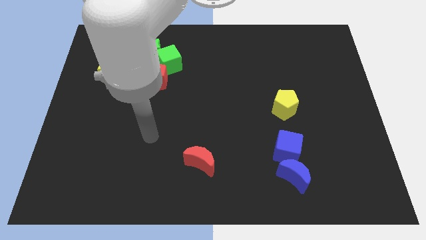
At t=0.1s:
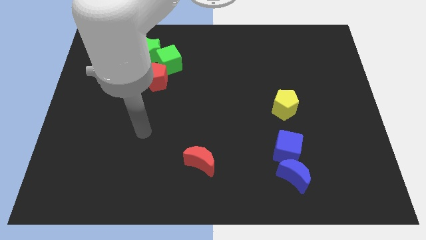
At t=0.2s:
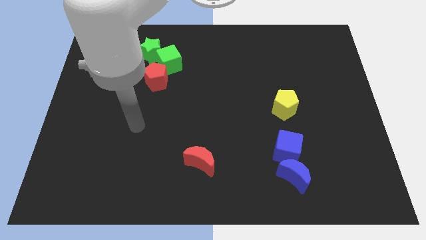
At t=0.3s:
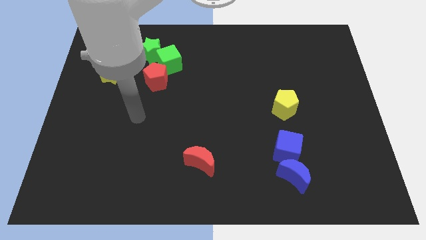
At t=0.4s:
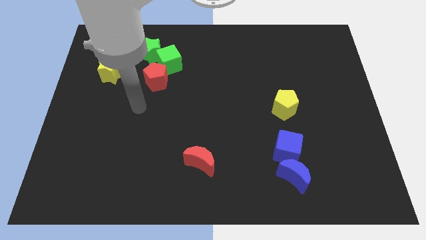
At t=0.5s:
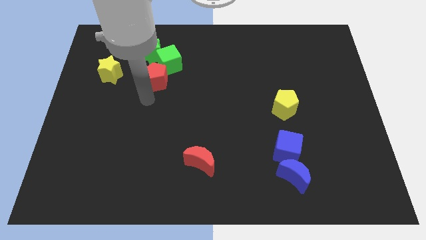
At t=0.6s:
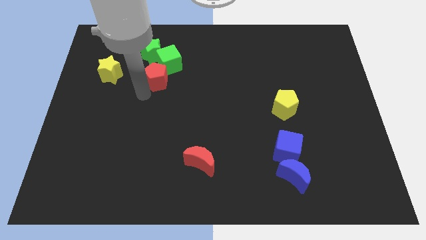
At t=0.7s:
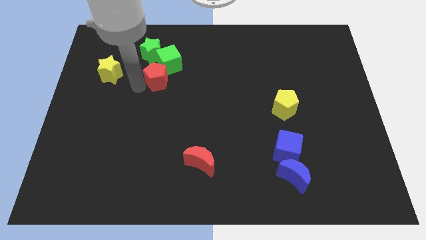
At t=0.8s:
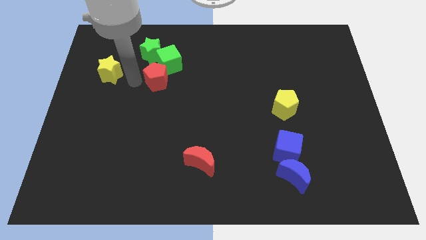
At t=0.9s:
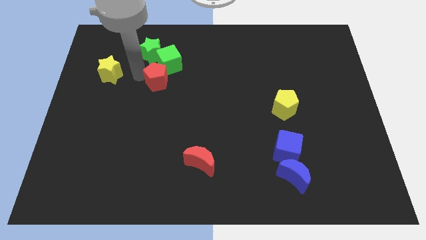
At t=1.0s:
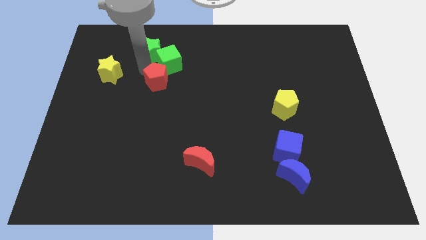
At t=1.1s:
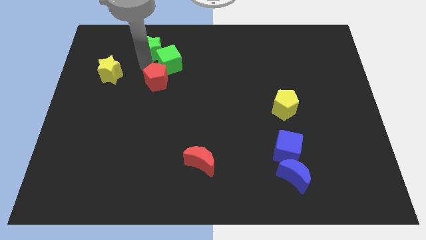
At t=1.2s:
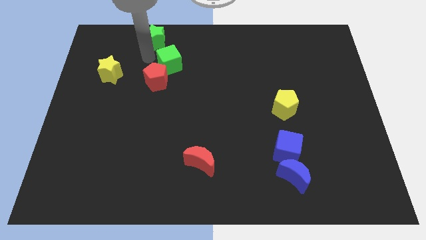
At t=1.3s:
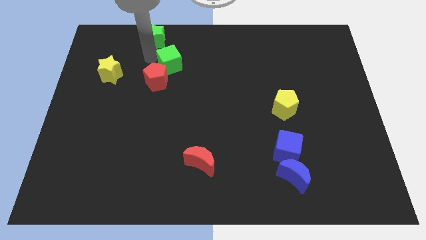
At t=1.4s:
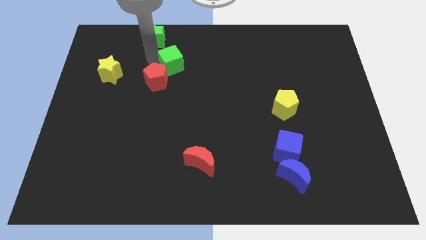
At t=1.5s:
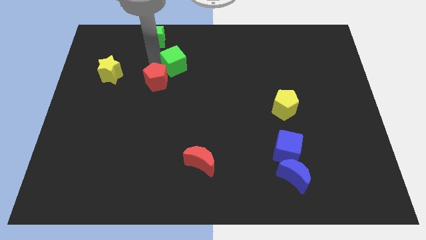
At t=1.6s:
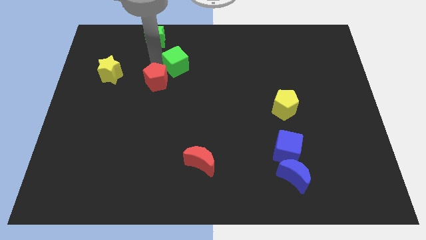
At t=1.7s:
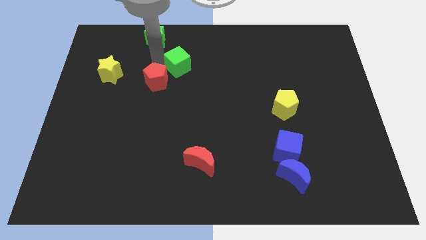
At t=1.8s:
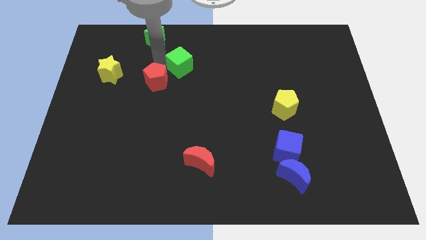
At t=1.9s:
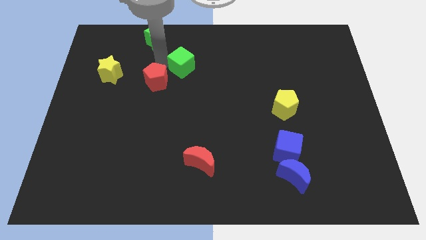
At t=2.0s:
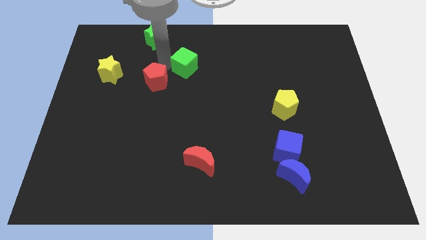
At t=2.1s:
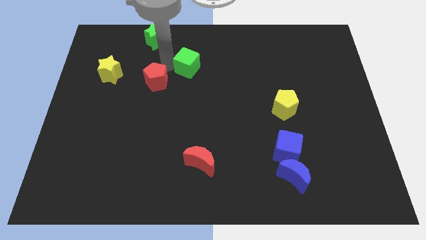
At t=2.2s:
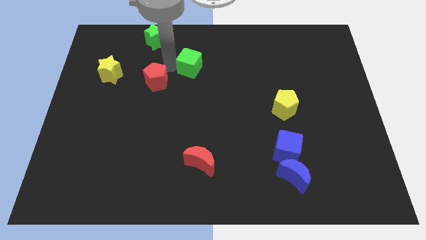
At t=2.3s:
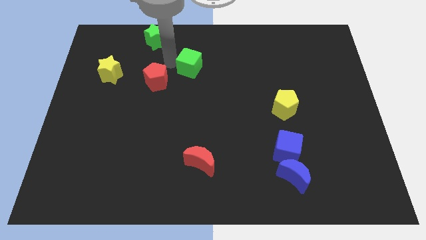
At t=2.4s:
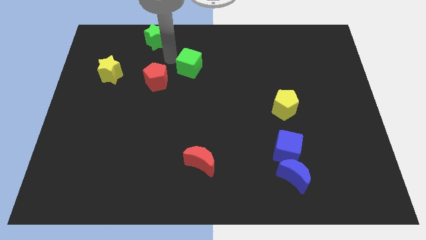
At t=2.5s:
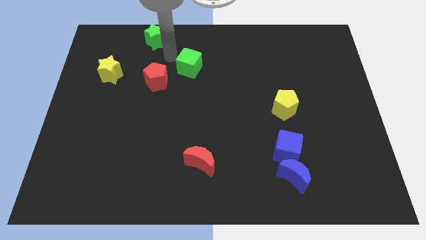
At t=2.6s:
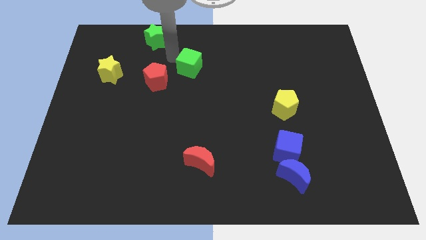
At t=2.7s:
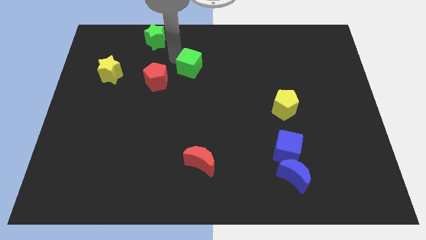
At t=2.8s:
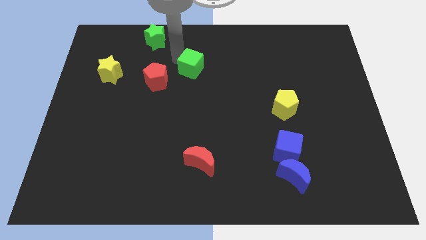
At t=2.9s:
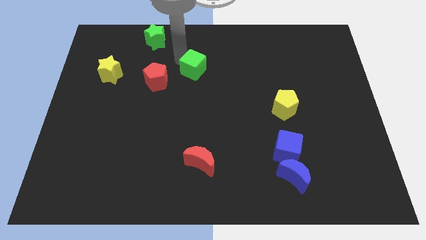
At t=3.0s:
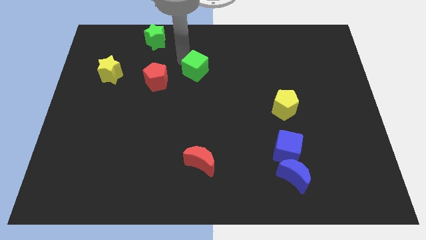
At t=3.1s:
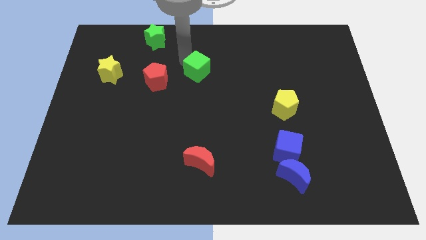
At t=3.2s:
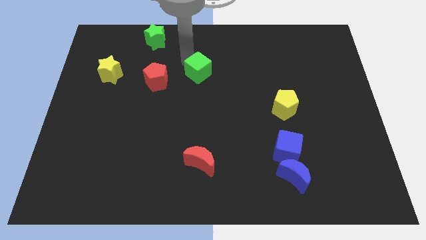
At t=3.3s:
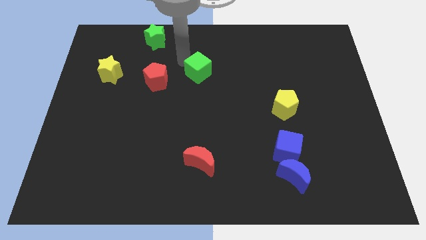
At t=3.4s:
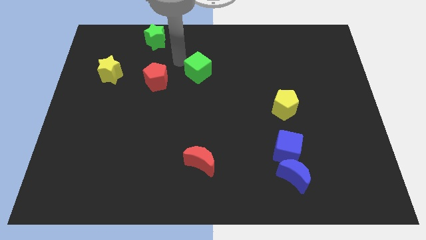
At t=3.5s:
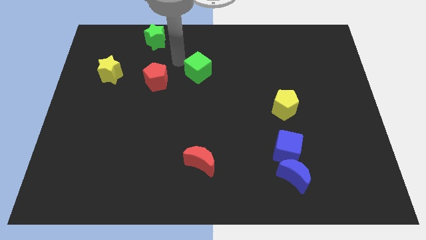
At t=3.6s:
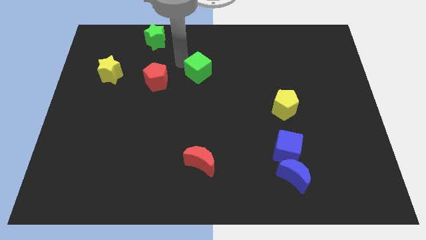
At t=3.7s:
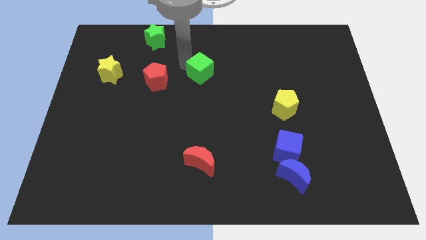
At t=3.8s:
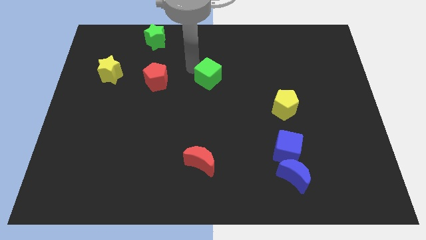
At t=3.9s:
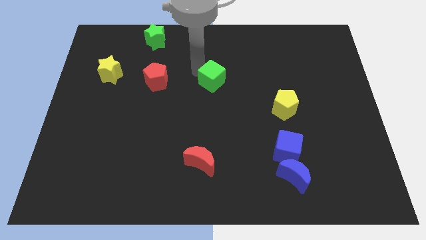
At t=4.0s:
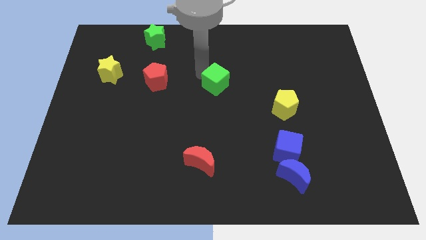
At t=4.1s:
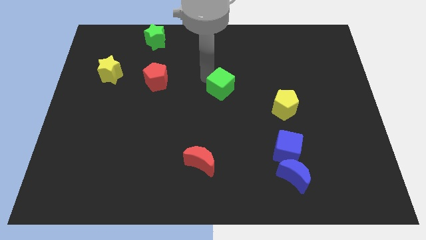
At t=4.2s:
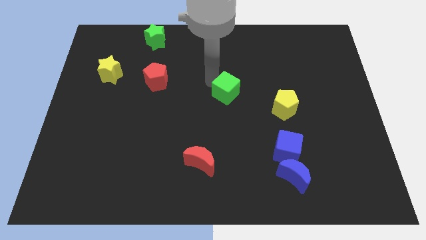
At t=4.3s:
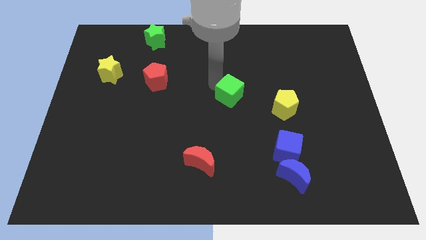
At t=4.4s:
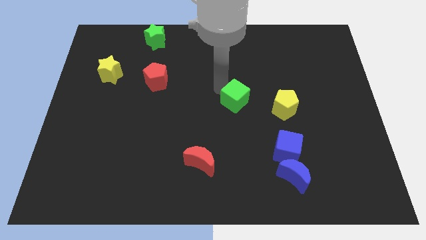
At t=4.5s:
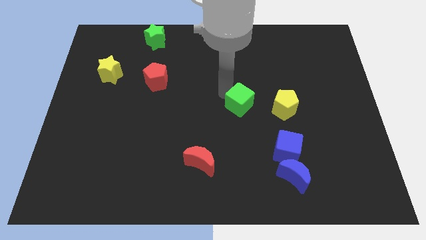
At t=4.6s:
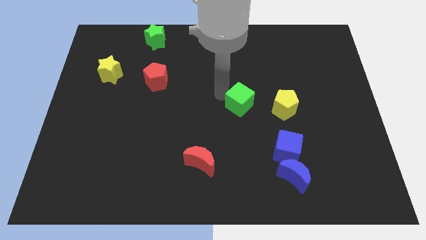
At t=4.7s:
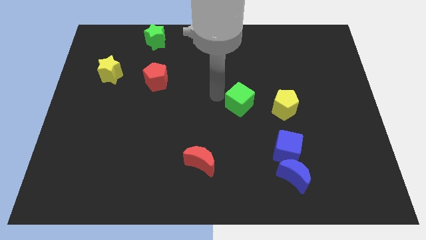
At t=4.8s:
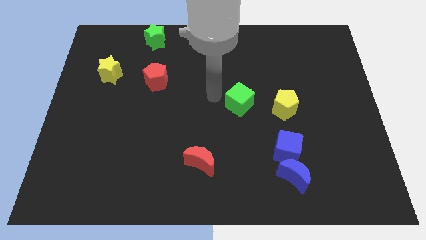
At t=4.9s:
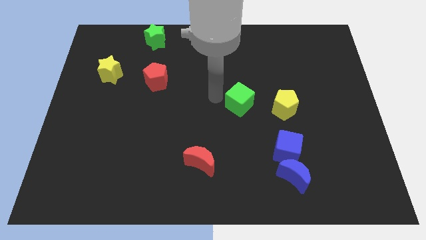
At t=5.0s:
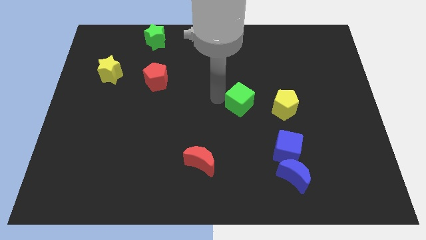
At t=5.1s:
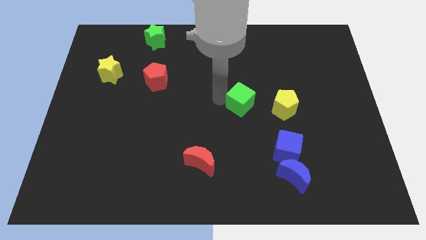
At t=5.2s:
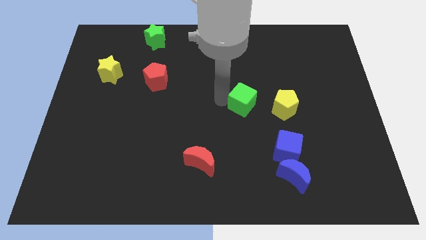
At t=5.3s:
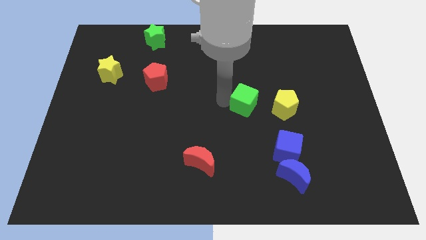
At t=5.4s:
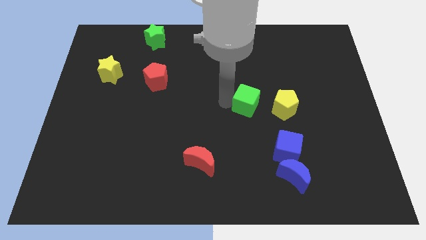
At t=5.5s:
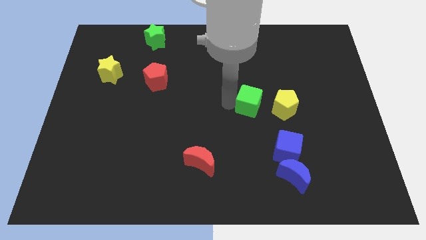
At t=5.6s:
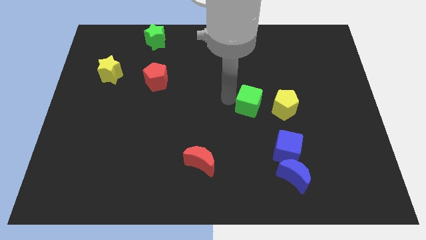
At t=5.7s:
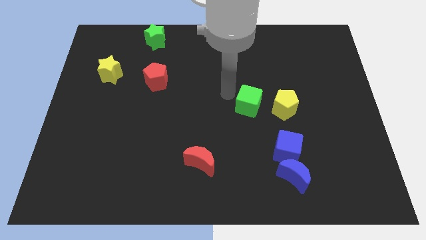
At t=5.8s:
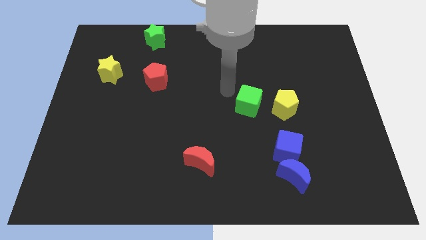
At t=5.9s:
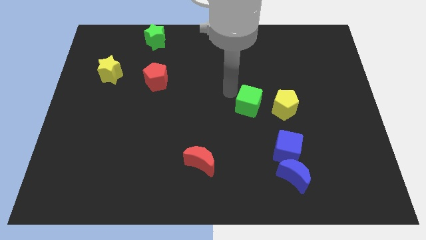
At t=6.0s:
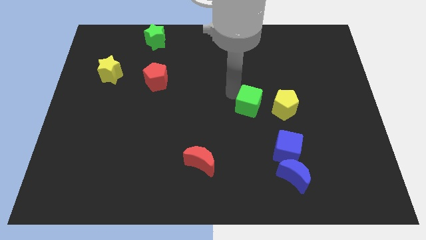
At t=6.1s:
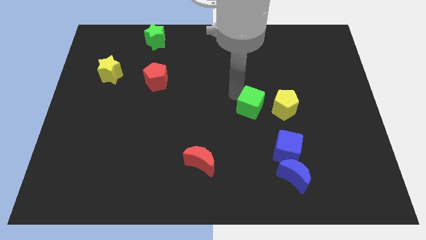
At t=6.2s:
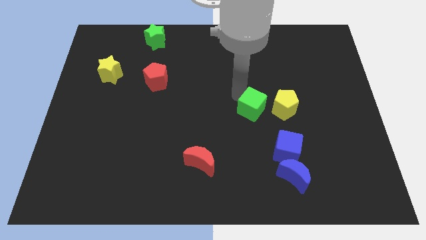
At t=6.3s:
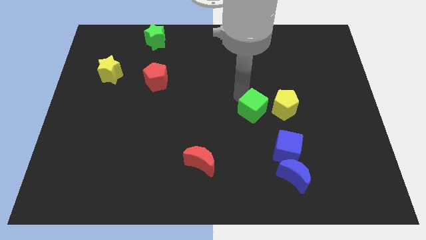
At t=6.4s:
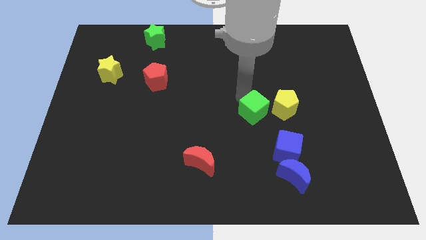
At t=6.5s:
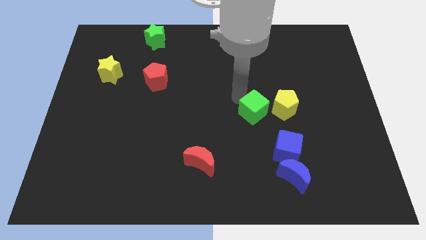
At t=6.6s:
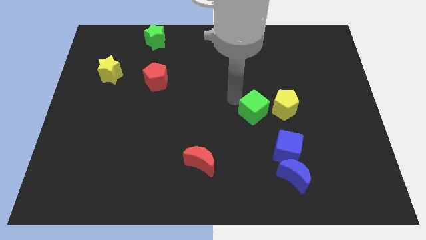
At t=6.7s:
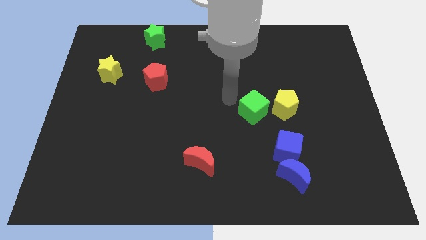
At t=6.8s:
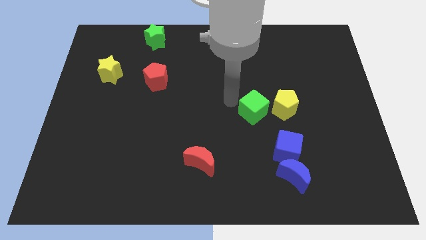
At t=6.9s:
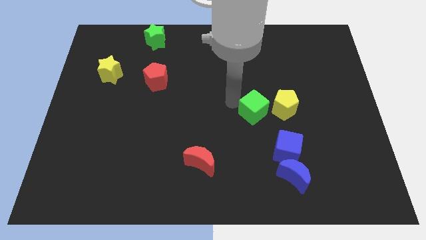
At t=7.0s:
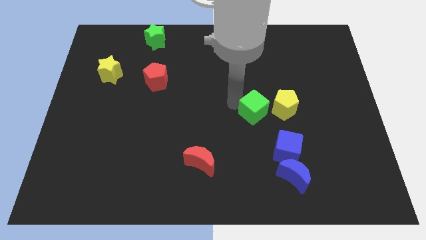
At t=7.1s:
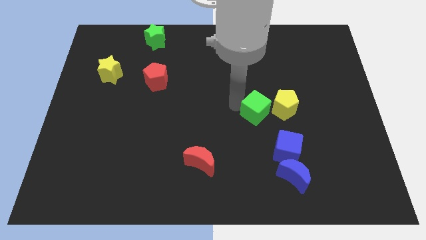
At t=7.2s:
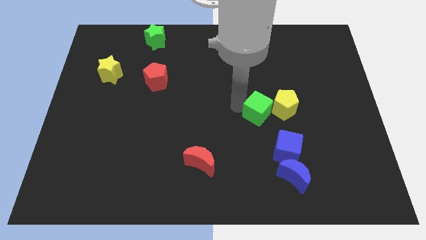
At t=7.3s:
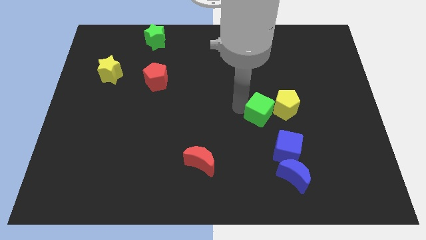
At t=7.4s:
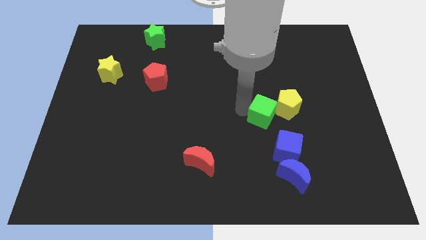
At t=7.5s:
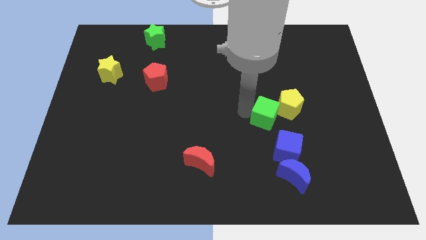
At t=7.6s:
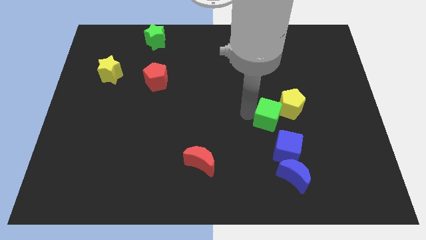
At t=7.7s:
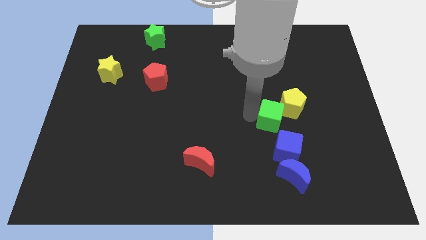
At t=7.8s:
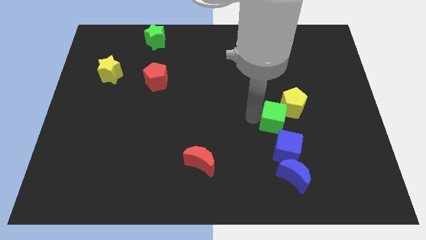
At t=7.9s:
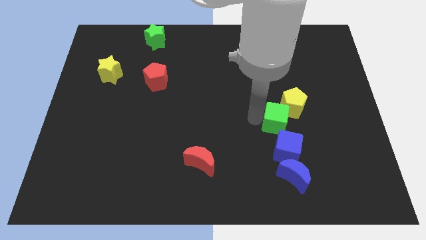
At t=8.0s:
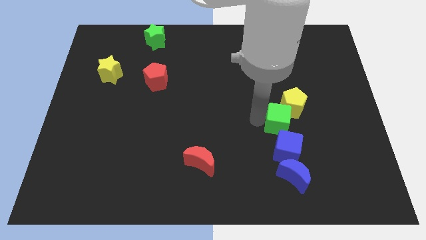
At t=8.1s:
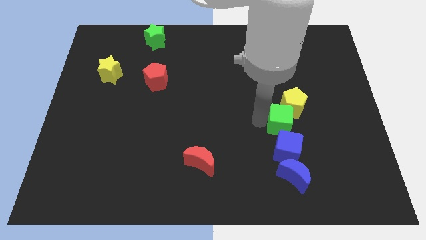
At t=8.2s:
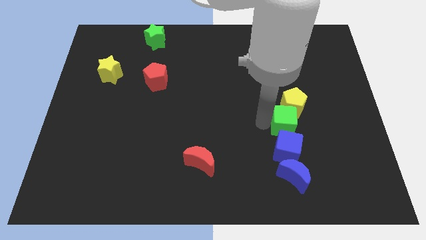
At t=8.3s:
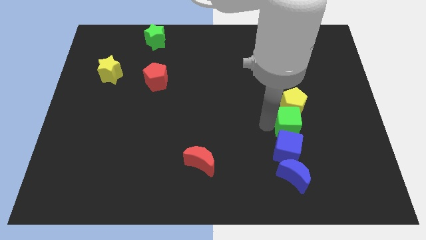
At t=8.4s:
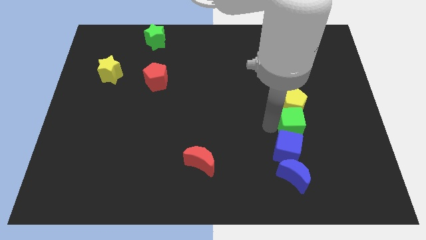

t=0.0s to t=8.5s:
put the green cube to the bottom right side of the yellow pentagon

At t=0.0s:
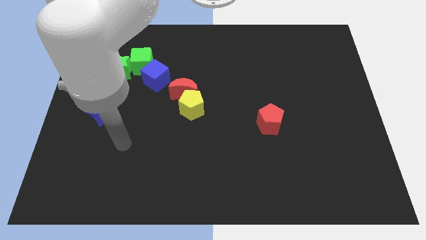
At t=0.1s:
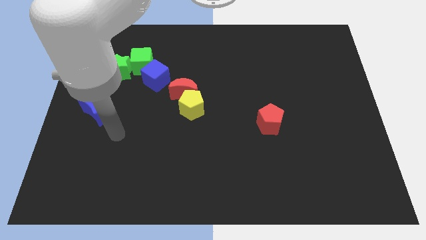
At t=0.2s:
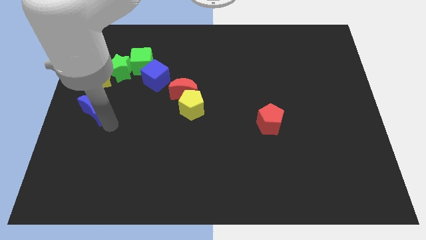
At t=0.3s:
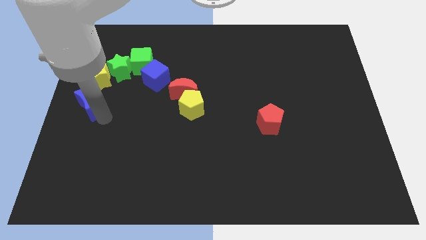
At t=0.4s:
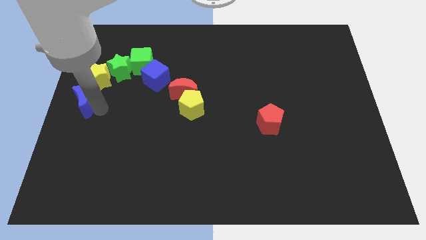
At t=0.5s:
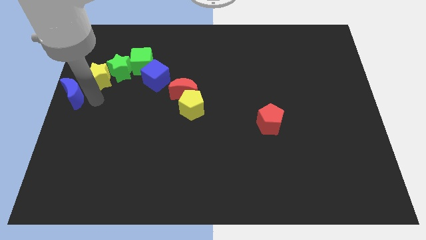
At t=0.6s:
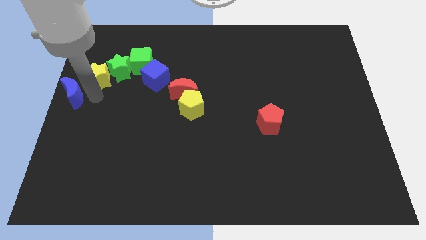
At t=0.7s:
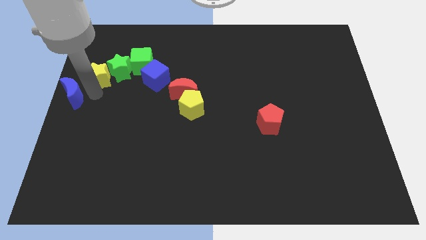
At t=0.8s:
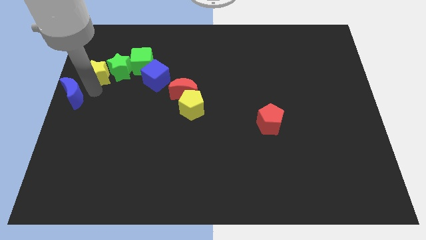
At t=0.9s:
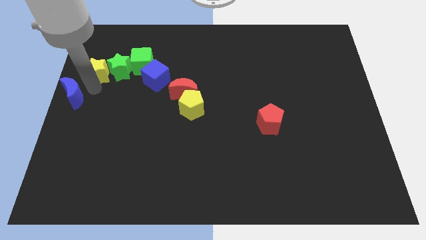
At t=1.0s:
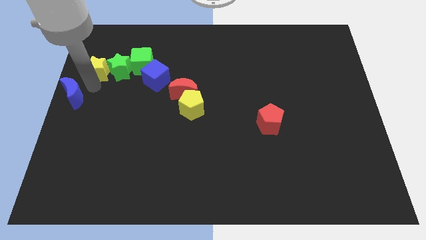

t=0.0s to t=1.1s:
move the yellow star diagonally up and to the left of the green star
